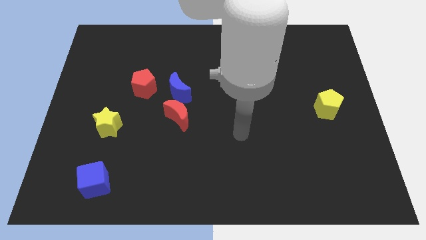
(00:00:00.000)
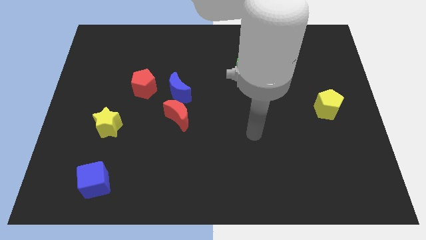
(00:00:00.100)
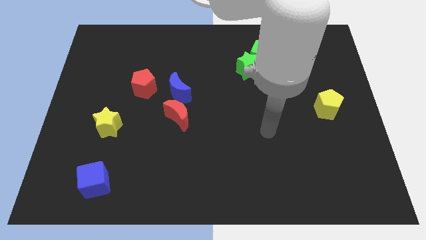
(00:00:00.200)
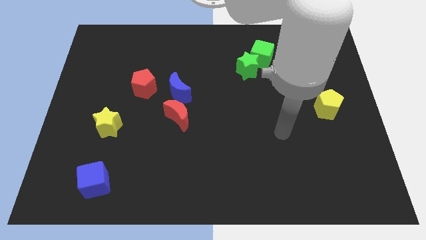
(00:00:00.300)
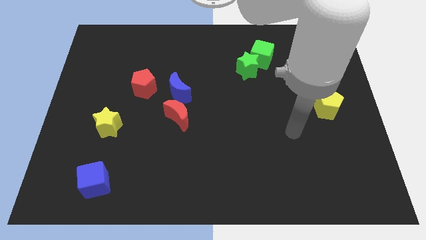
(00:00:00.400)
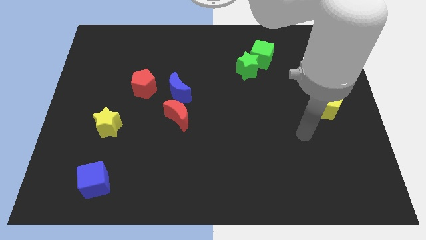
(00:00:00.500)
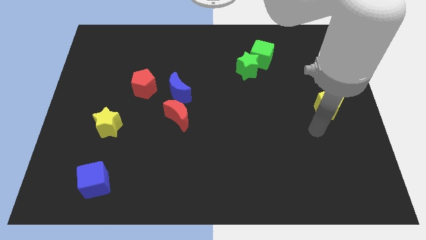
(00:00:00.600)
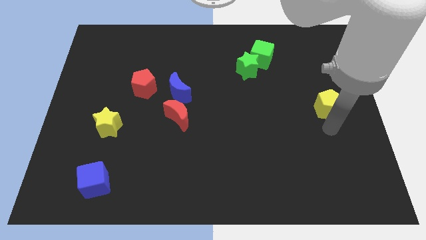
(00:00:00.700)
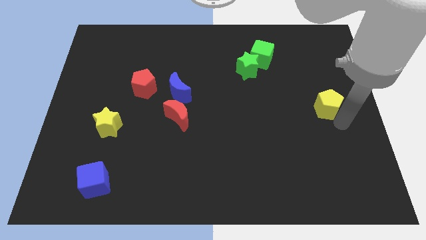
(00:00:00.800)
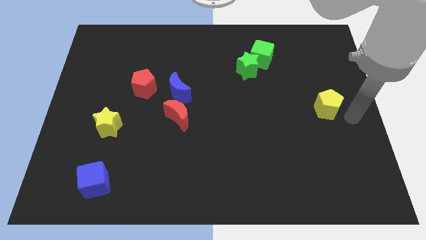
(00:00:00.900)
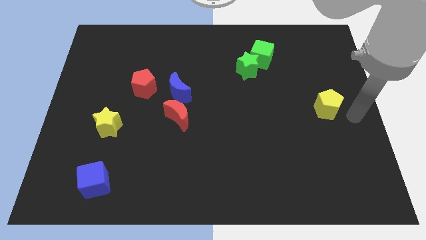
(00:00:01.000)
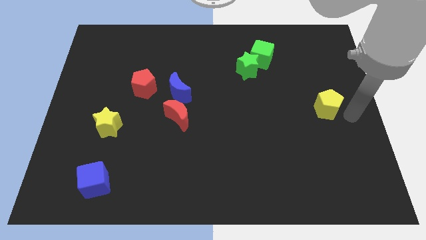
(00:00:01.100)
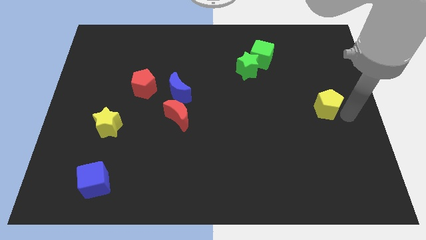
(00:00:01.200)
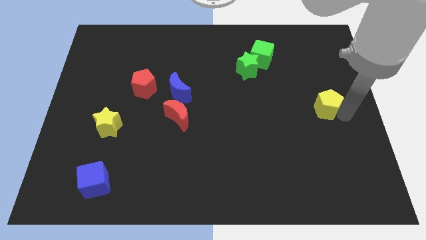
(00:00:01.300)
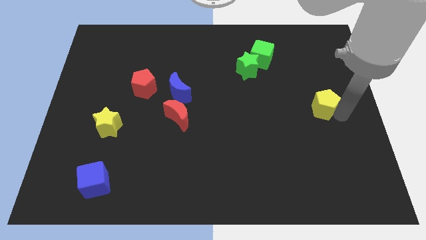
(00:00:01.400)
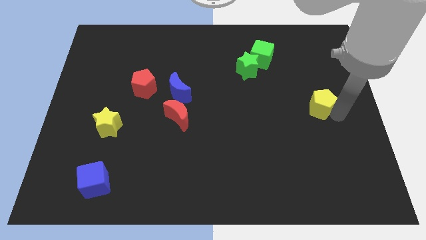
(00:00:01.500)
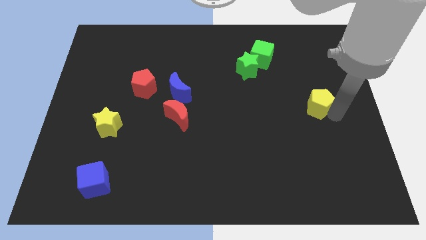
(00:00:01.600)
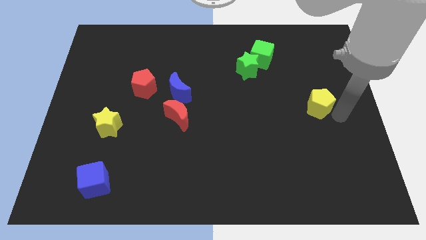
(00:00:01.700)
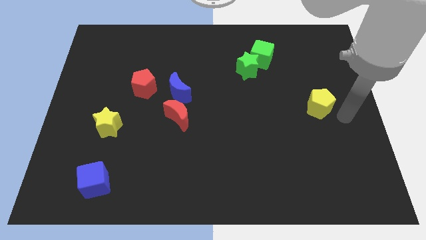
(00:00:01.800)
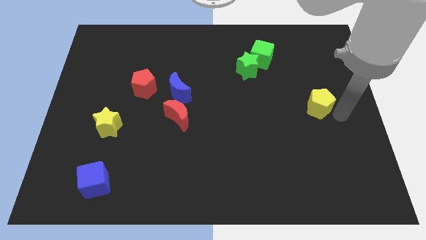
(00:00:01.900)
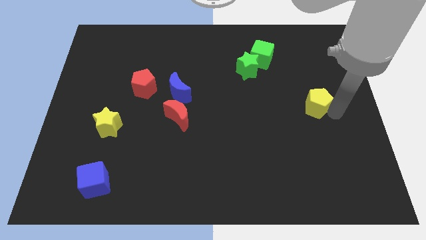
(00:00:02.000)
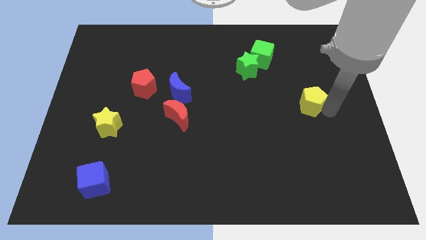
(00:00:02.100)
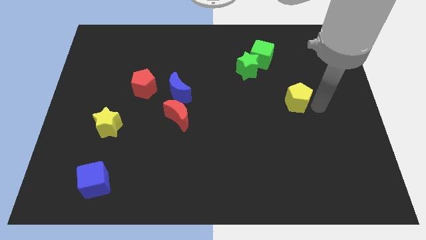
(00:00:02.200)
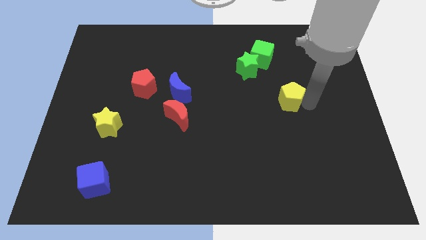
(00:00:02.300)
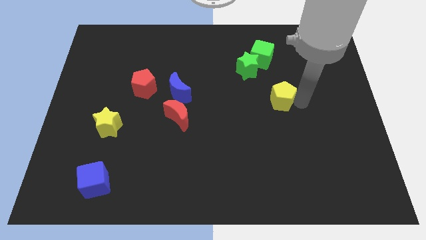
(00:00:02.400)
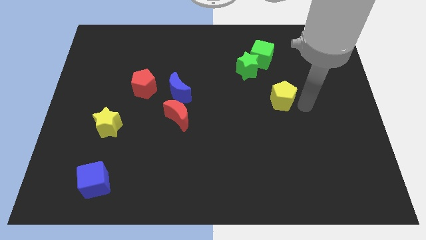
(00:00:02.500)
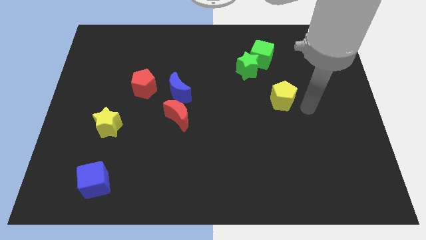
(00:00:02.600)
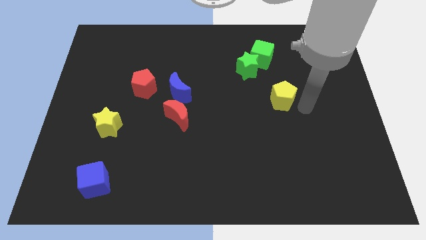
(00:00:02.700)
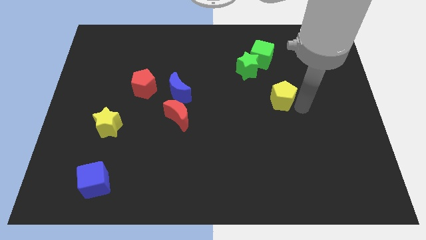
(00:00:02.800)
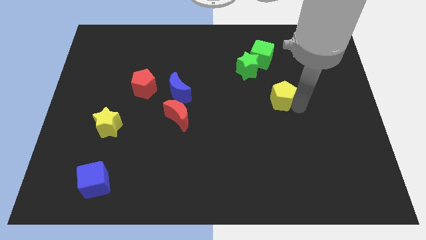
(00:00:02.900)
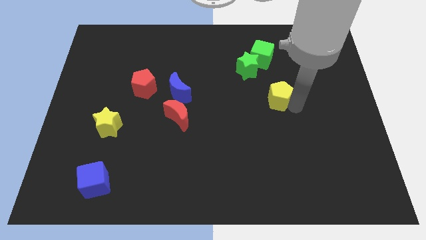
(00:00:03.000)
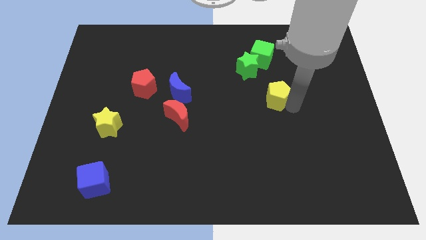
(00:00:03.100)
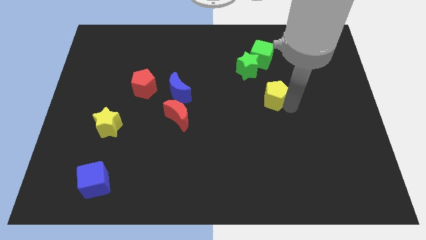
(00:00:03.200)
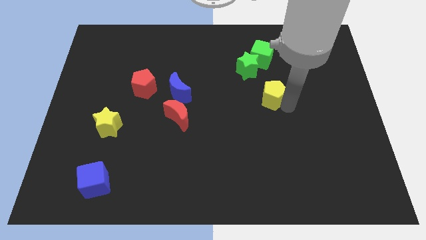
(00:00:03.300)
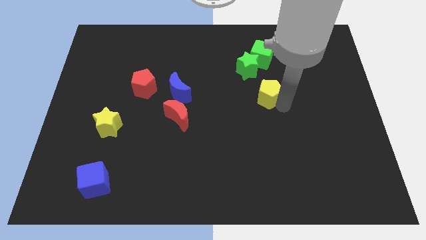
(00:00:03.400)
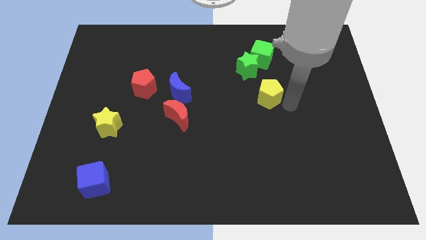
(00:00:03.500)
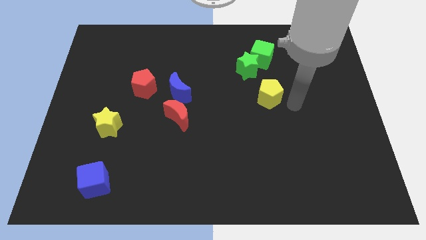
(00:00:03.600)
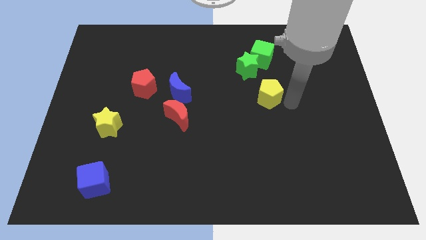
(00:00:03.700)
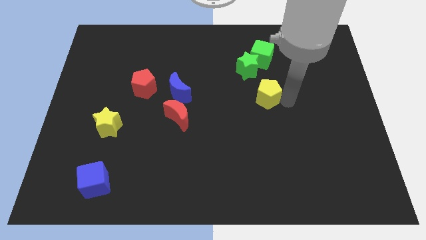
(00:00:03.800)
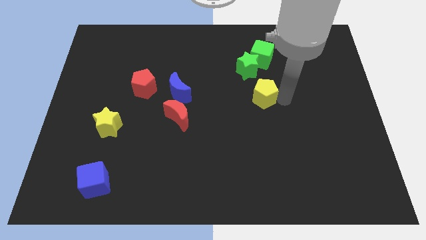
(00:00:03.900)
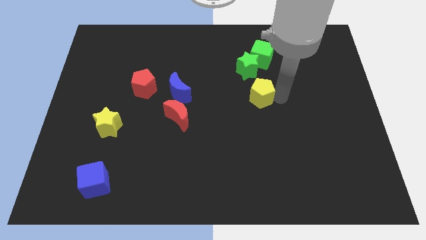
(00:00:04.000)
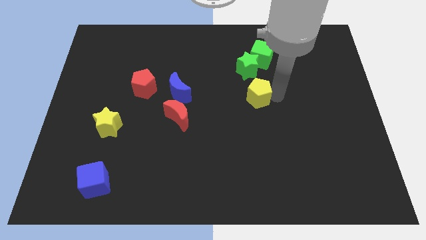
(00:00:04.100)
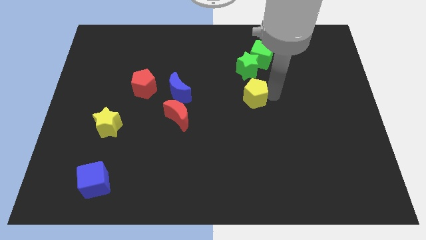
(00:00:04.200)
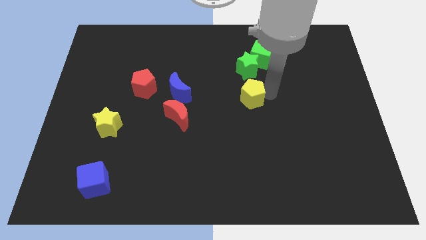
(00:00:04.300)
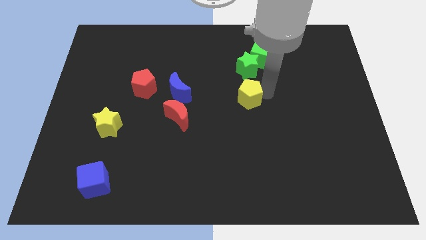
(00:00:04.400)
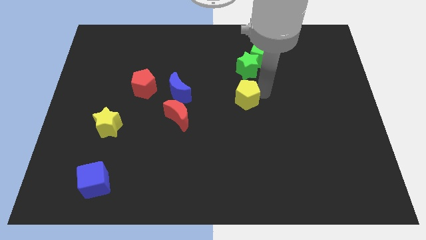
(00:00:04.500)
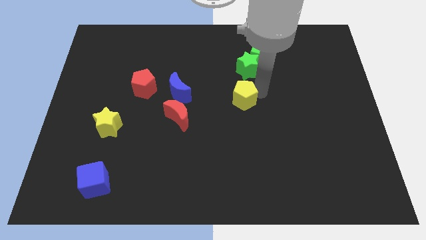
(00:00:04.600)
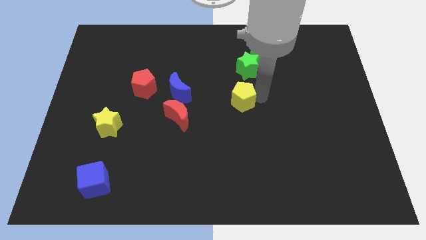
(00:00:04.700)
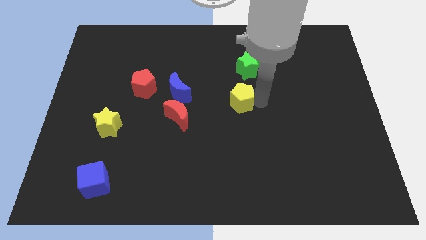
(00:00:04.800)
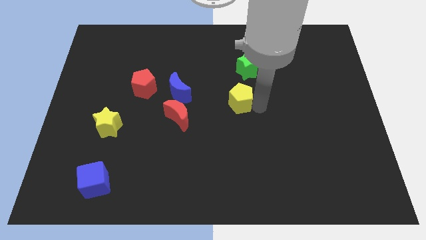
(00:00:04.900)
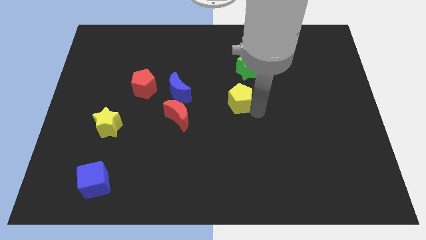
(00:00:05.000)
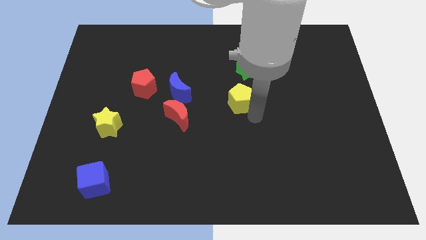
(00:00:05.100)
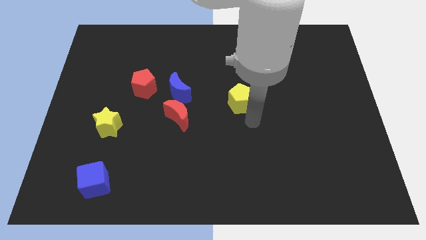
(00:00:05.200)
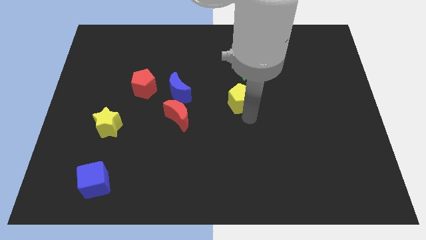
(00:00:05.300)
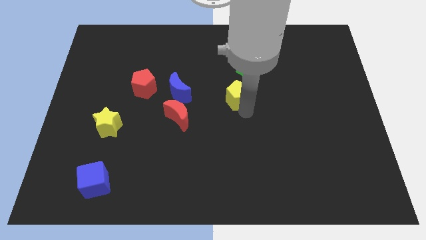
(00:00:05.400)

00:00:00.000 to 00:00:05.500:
move the yellow pentagon diagonally down and to the left of the green star

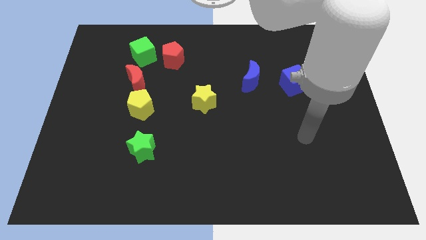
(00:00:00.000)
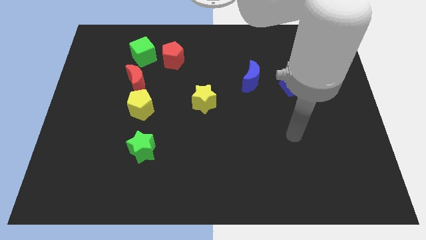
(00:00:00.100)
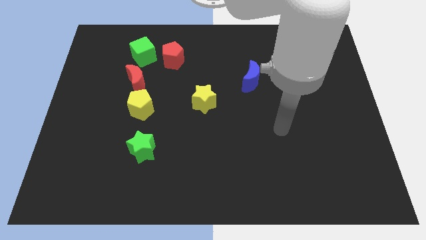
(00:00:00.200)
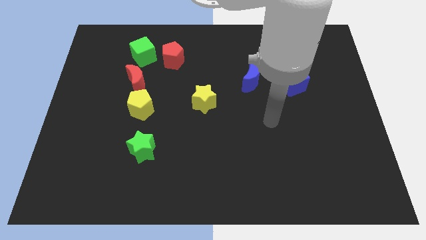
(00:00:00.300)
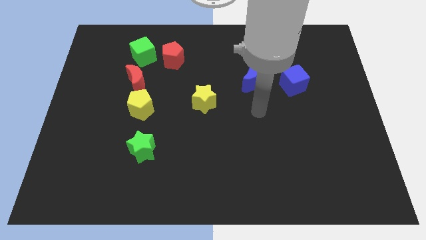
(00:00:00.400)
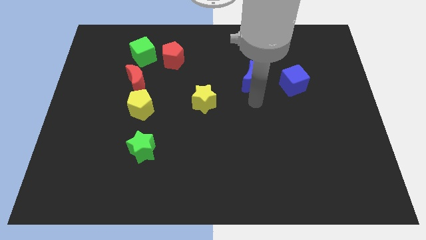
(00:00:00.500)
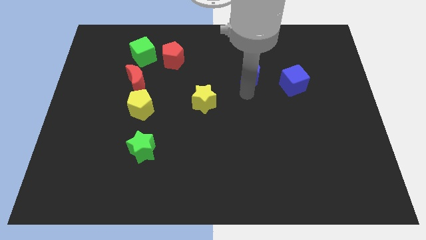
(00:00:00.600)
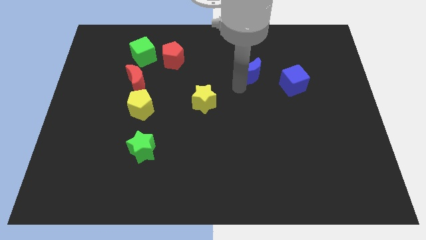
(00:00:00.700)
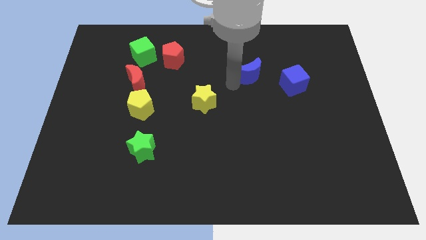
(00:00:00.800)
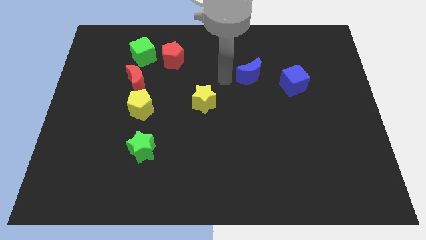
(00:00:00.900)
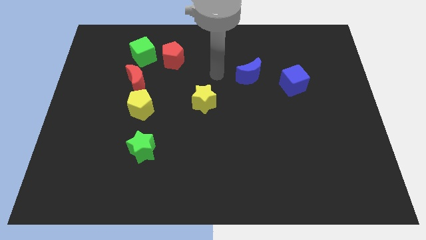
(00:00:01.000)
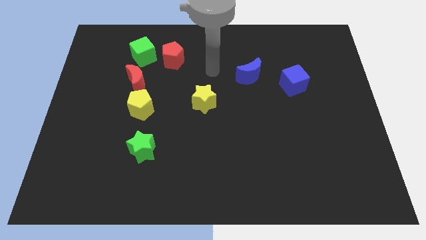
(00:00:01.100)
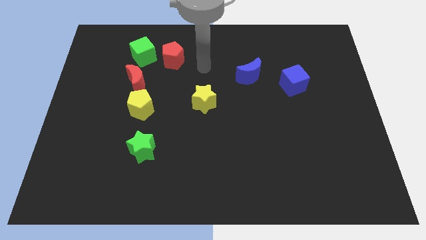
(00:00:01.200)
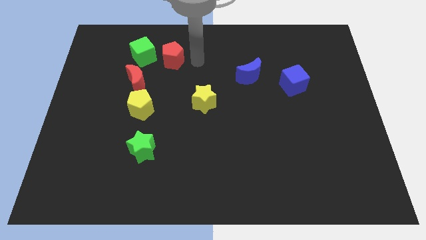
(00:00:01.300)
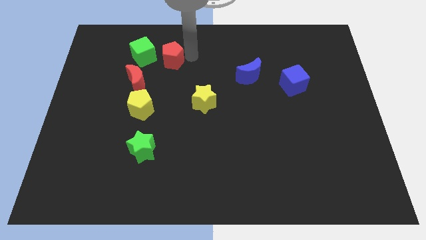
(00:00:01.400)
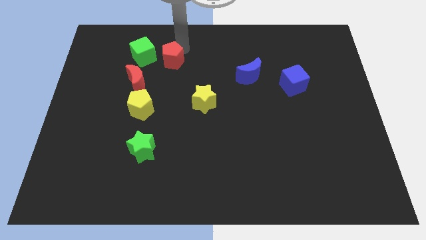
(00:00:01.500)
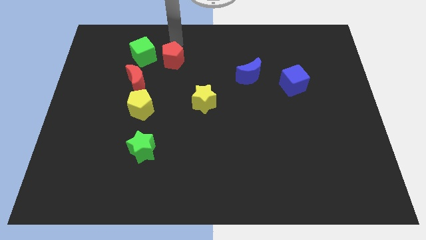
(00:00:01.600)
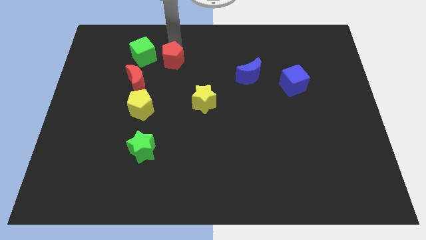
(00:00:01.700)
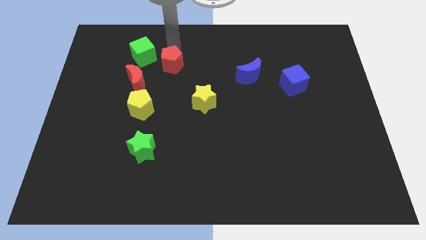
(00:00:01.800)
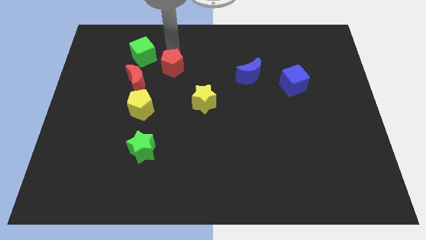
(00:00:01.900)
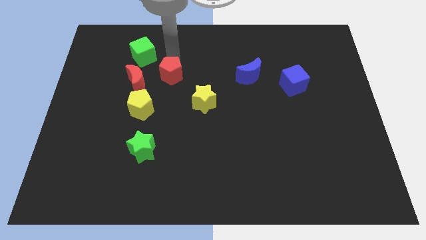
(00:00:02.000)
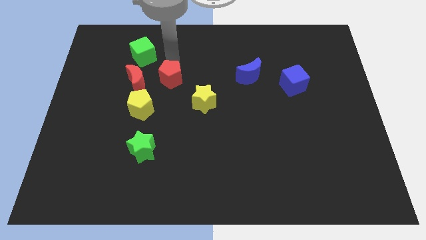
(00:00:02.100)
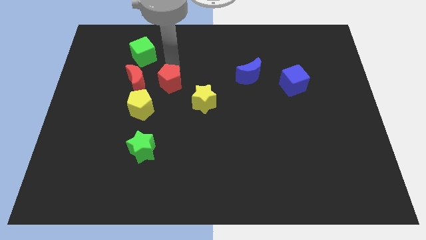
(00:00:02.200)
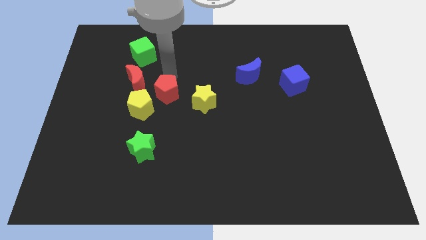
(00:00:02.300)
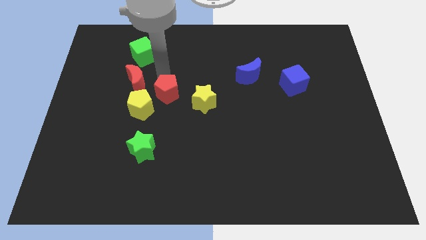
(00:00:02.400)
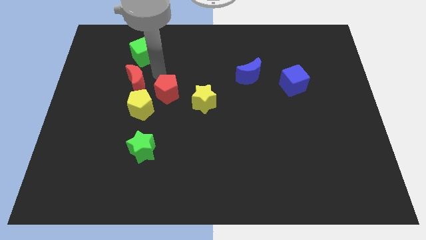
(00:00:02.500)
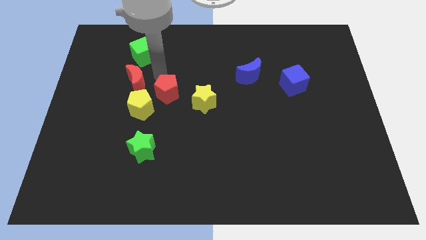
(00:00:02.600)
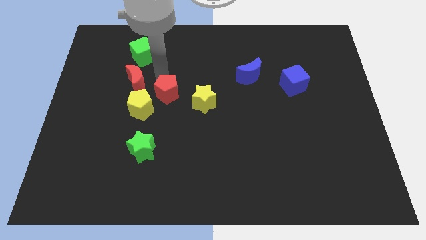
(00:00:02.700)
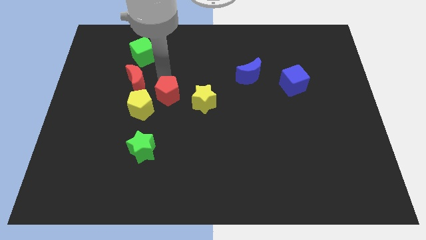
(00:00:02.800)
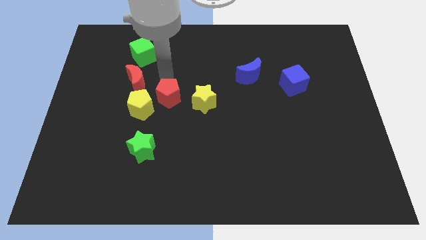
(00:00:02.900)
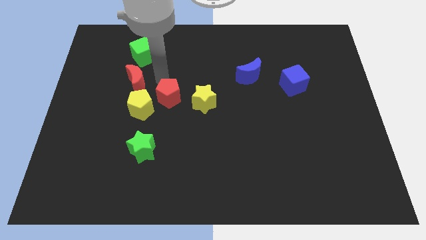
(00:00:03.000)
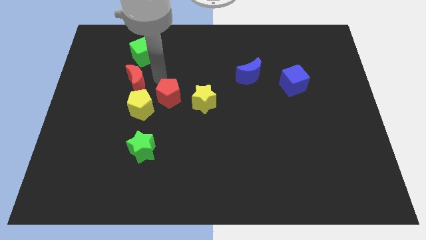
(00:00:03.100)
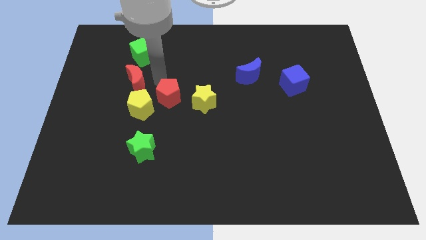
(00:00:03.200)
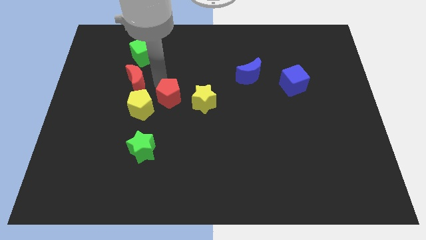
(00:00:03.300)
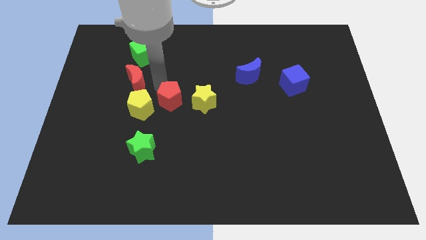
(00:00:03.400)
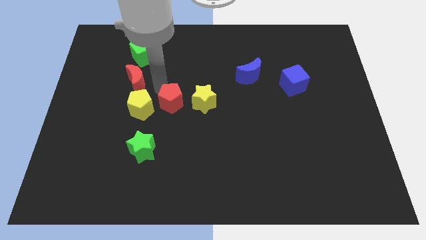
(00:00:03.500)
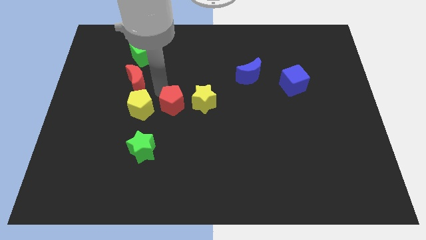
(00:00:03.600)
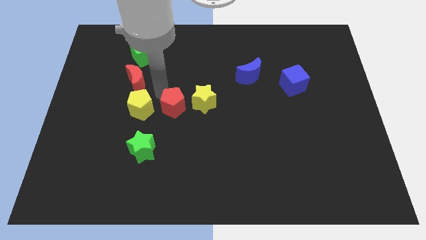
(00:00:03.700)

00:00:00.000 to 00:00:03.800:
slide the red pentagon diagonally down and to the left of the yellow star
